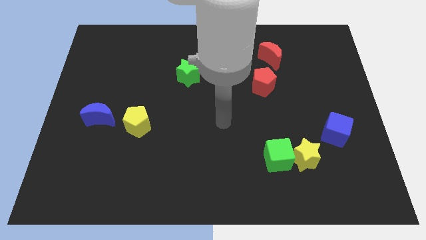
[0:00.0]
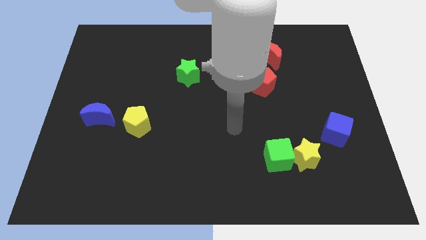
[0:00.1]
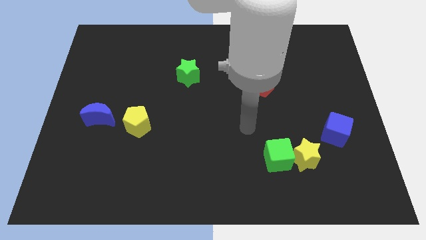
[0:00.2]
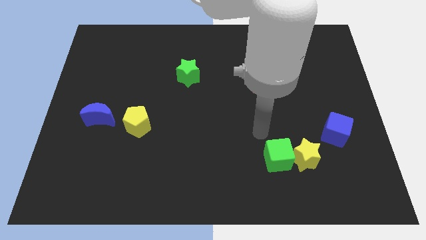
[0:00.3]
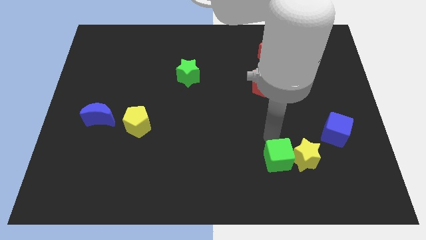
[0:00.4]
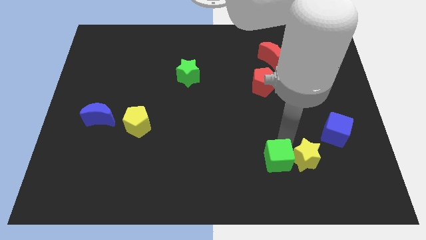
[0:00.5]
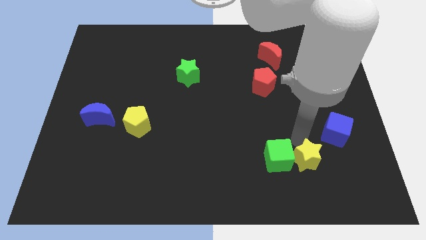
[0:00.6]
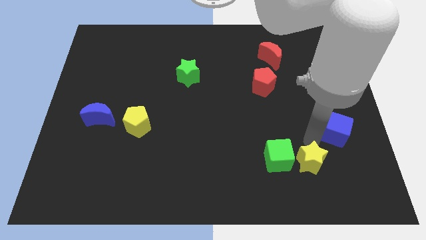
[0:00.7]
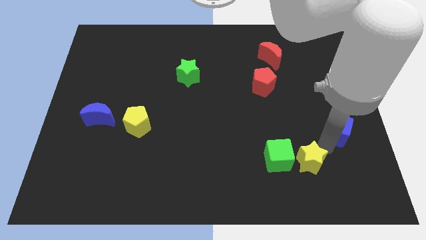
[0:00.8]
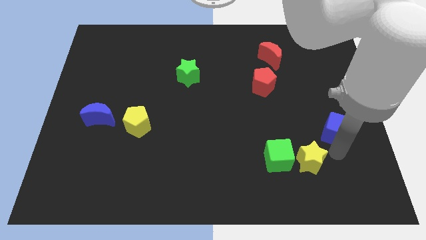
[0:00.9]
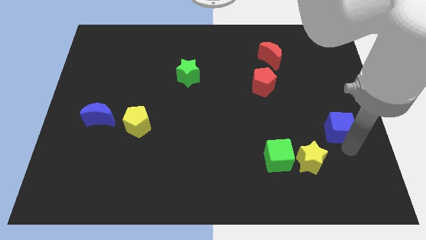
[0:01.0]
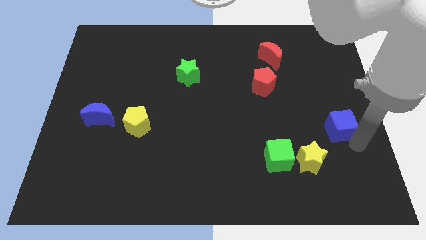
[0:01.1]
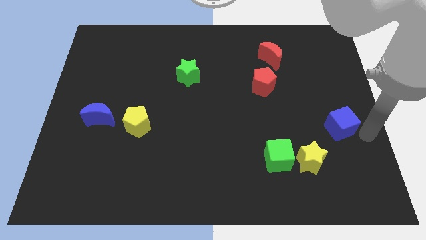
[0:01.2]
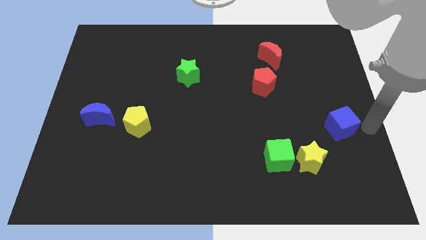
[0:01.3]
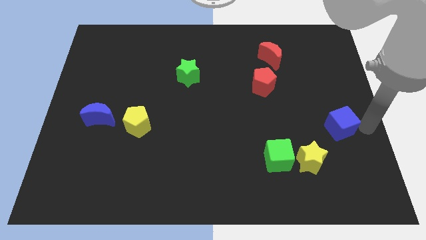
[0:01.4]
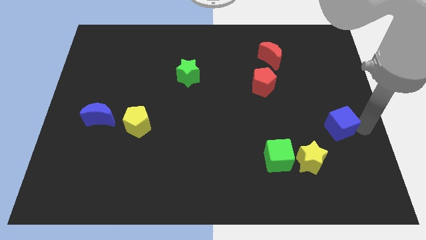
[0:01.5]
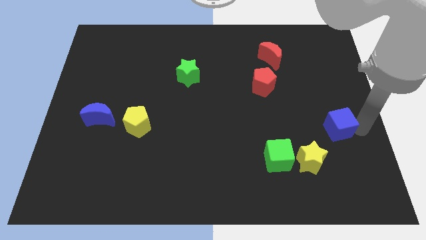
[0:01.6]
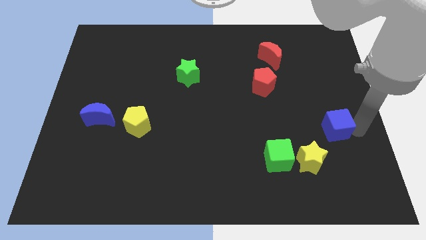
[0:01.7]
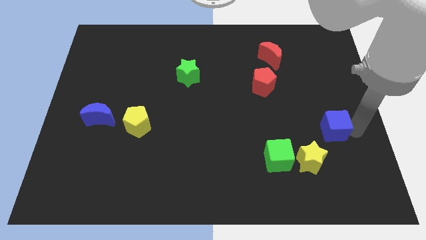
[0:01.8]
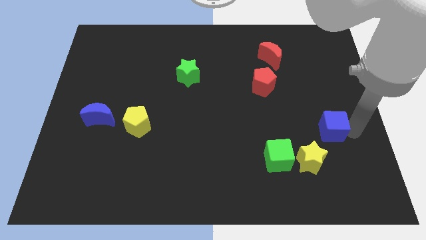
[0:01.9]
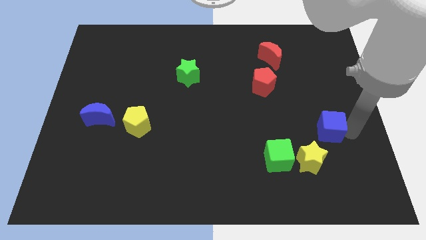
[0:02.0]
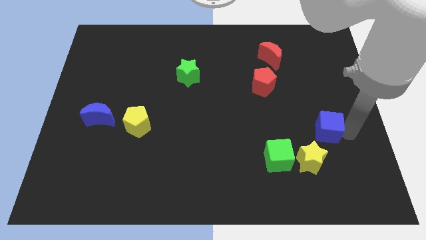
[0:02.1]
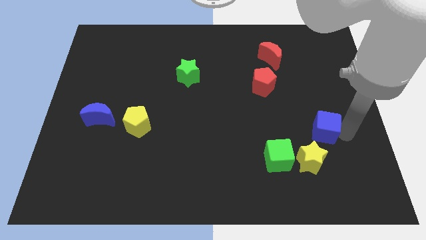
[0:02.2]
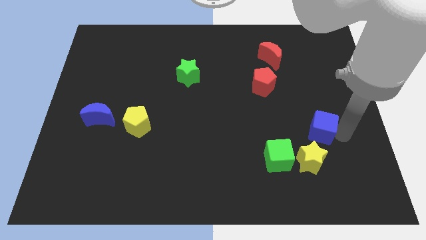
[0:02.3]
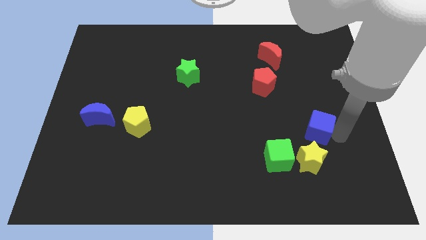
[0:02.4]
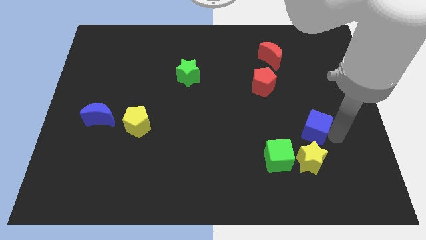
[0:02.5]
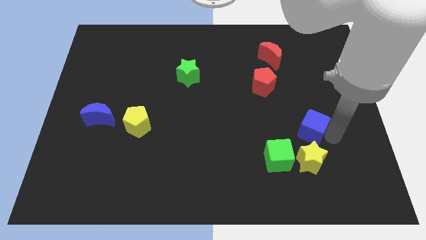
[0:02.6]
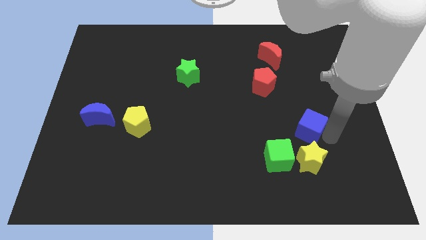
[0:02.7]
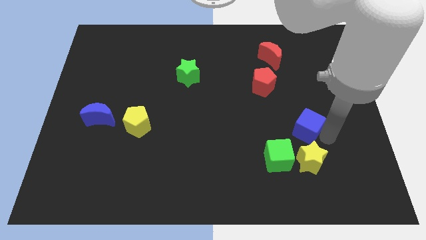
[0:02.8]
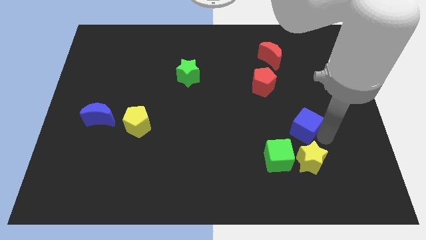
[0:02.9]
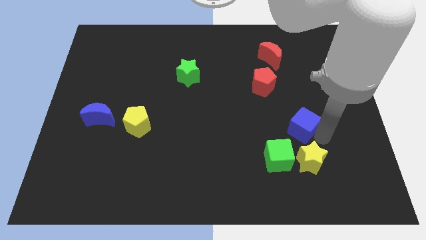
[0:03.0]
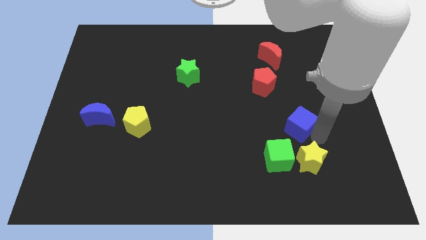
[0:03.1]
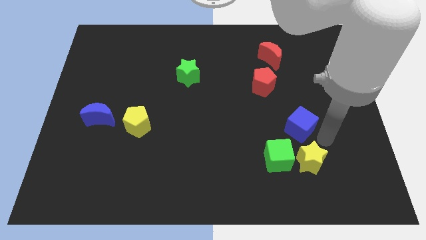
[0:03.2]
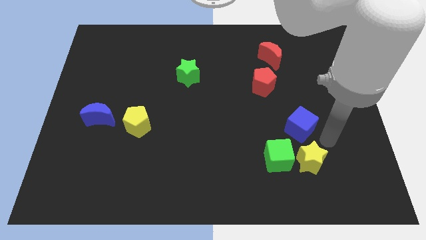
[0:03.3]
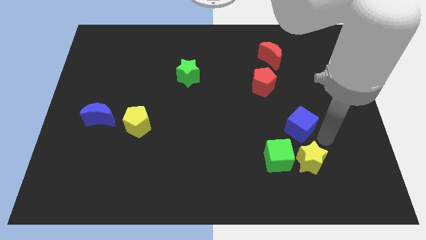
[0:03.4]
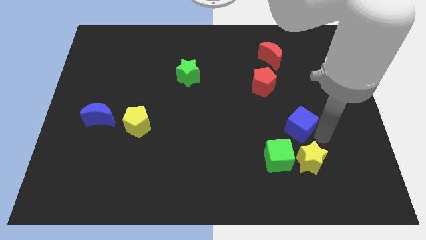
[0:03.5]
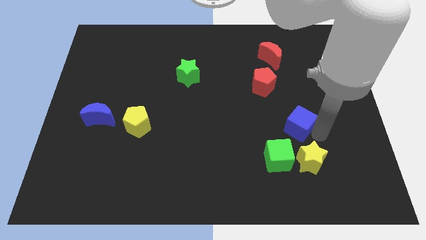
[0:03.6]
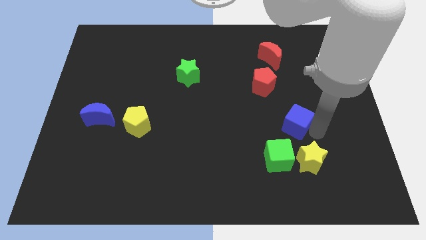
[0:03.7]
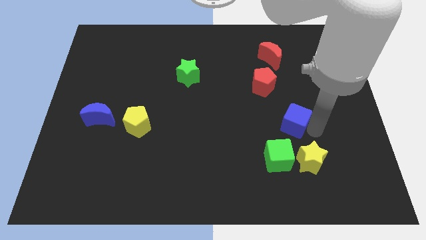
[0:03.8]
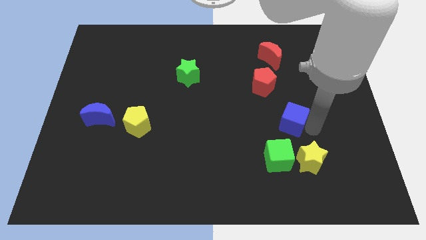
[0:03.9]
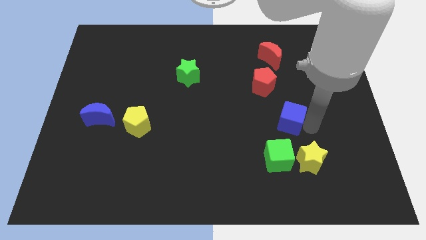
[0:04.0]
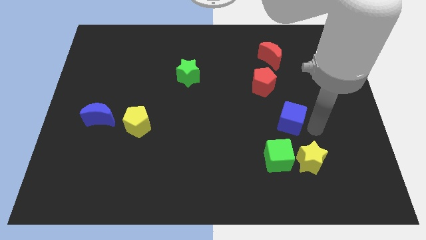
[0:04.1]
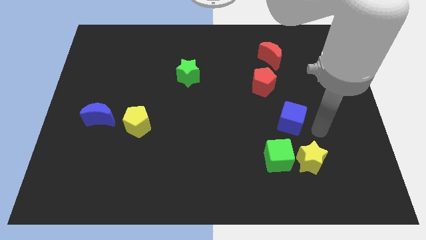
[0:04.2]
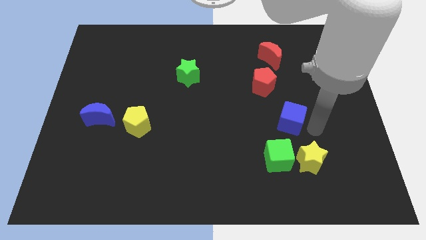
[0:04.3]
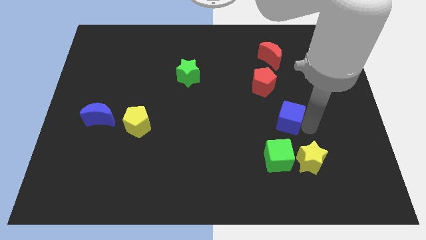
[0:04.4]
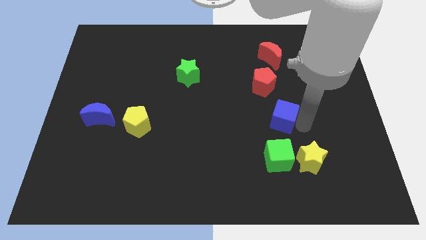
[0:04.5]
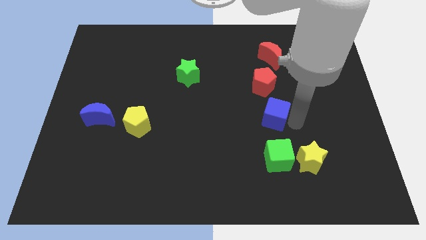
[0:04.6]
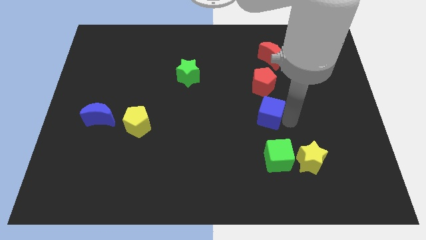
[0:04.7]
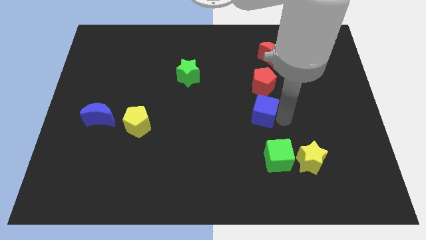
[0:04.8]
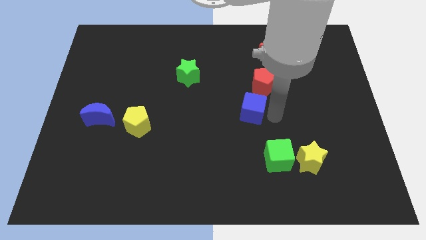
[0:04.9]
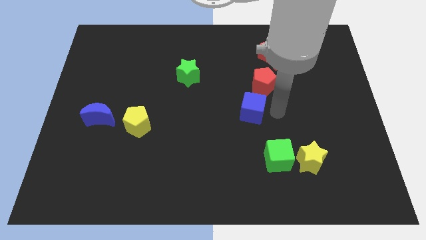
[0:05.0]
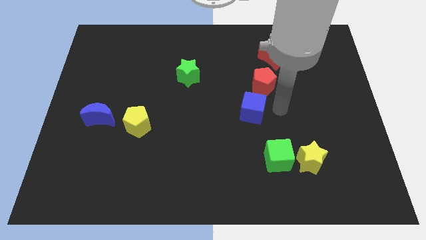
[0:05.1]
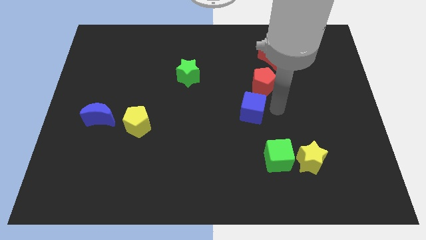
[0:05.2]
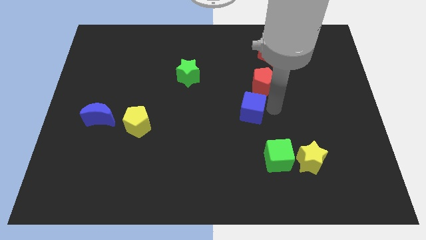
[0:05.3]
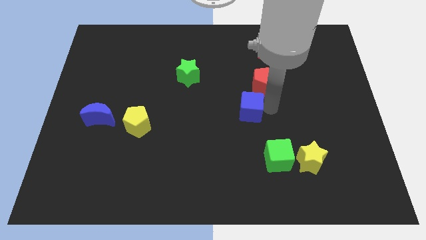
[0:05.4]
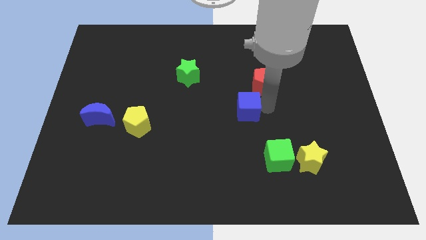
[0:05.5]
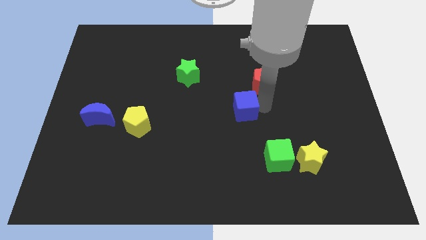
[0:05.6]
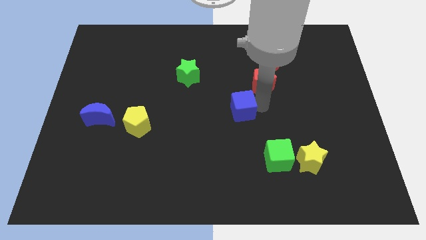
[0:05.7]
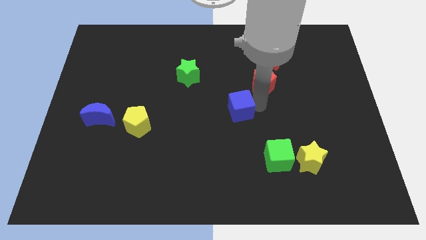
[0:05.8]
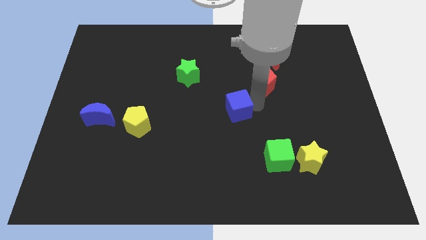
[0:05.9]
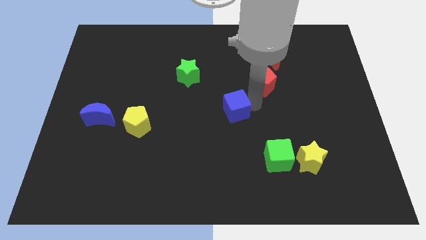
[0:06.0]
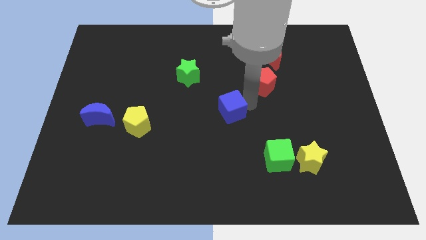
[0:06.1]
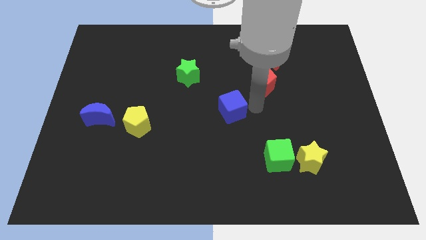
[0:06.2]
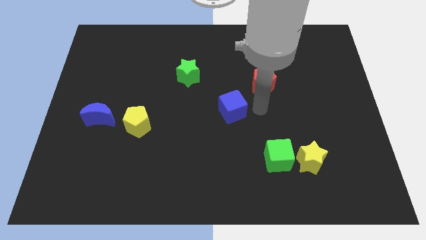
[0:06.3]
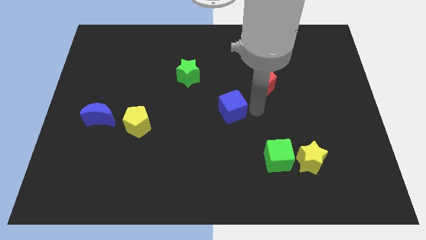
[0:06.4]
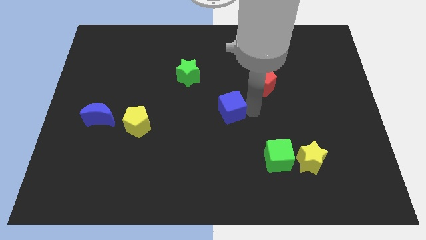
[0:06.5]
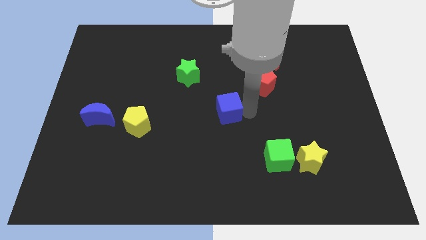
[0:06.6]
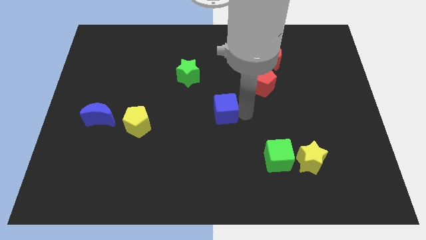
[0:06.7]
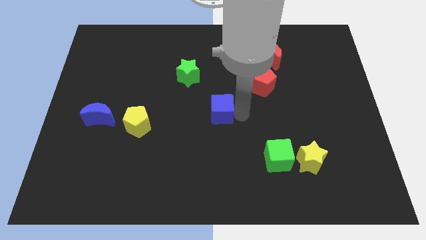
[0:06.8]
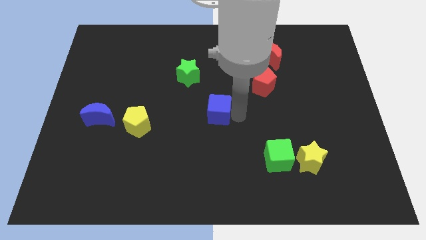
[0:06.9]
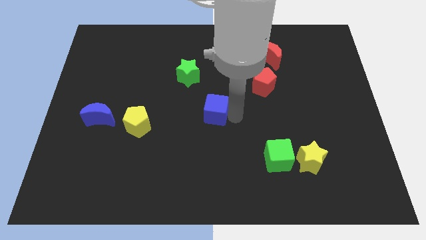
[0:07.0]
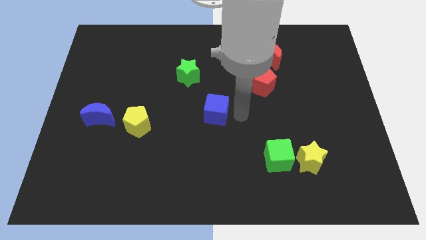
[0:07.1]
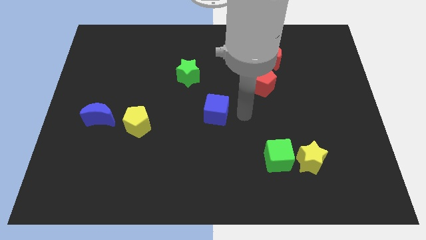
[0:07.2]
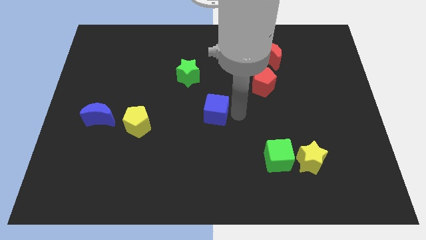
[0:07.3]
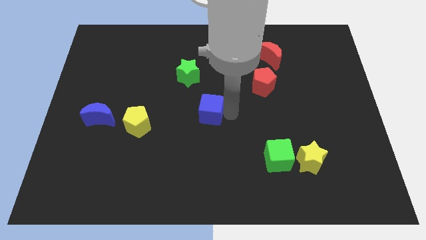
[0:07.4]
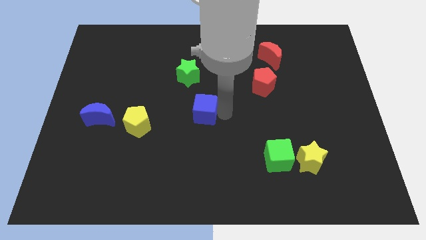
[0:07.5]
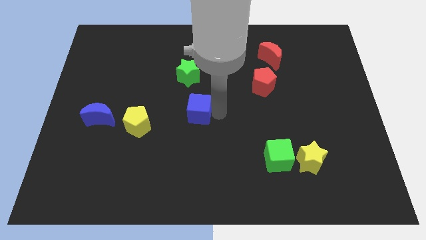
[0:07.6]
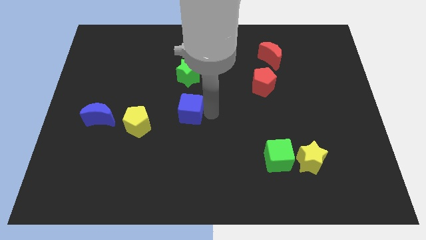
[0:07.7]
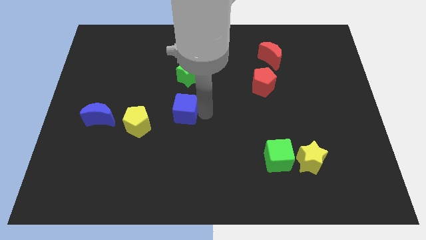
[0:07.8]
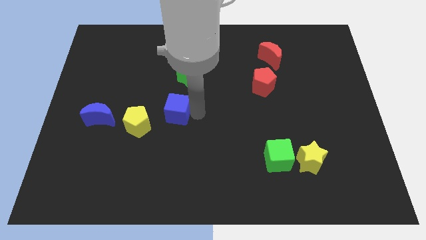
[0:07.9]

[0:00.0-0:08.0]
move the blue cube to the top right side of the yellow pentagon
